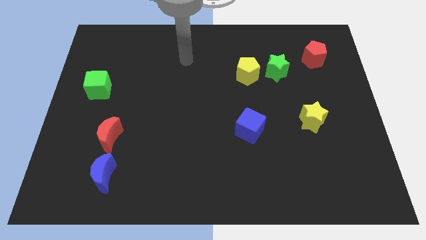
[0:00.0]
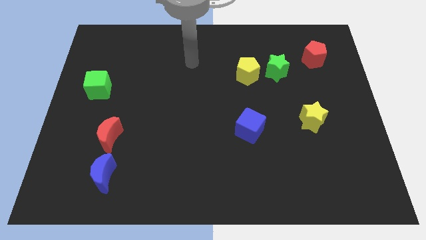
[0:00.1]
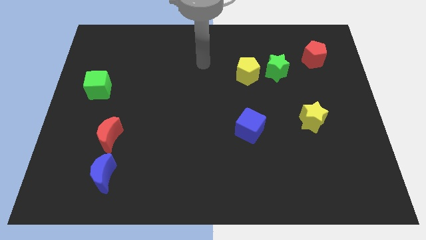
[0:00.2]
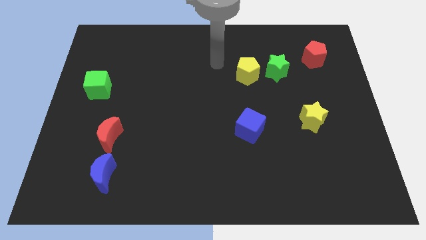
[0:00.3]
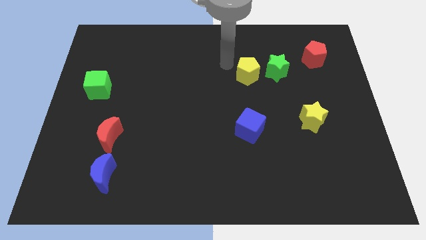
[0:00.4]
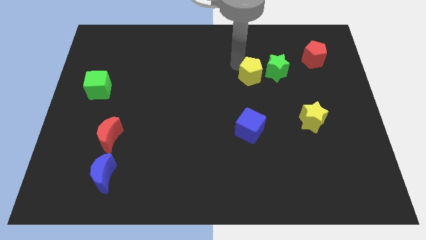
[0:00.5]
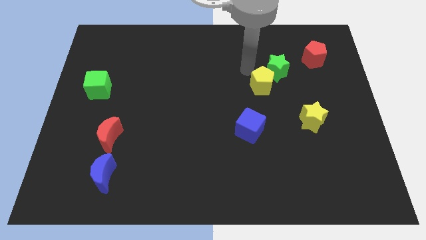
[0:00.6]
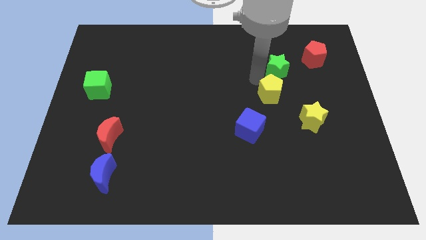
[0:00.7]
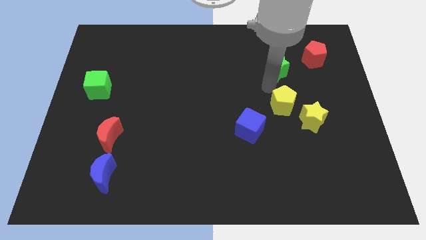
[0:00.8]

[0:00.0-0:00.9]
separate the green star from the yellow pentagon

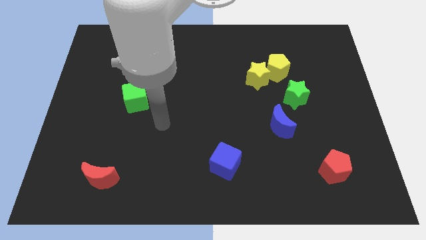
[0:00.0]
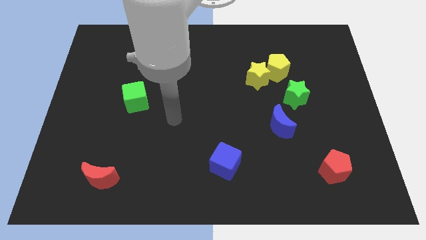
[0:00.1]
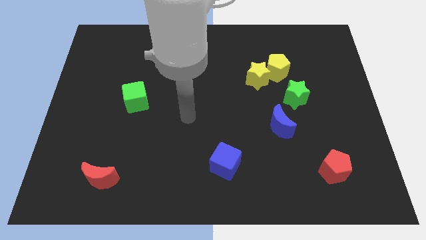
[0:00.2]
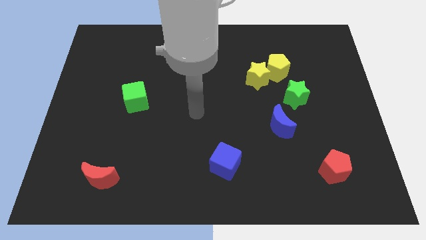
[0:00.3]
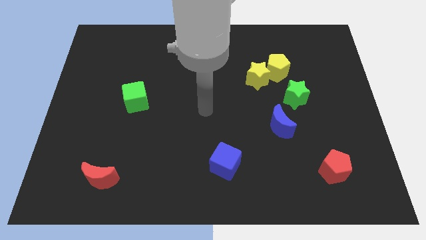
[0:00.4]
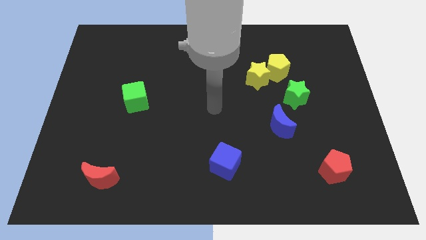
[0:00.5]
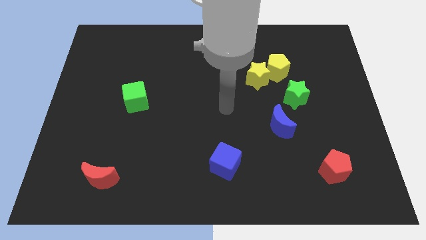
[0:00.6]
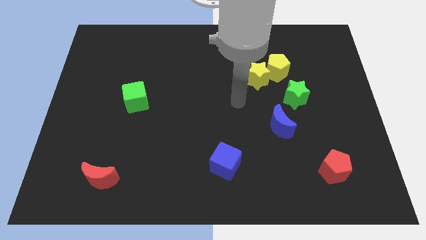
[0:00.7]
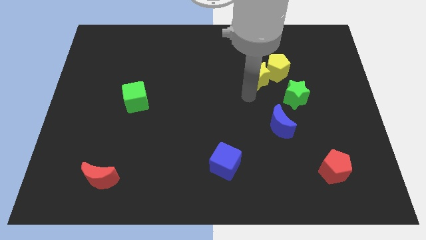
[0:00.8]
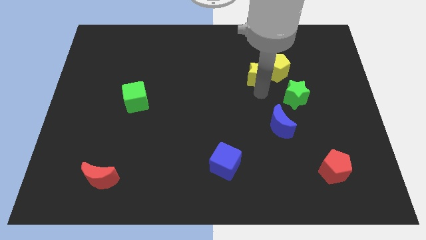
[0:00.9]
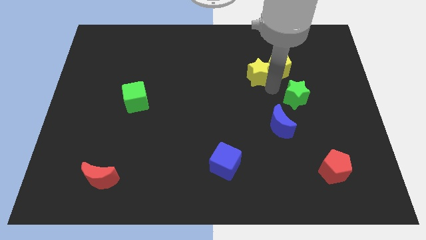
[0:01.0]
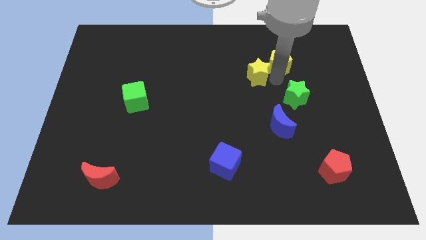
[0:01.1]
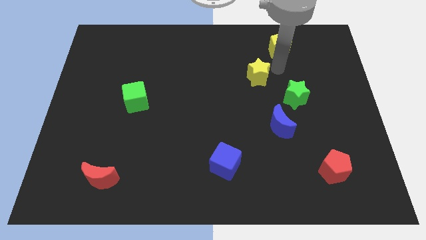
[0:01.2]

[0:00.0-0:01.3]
pull the yellow star apart from the yellow pentagon

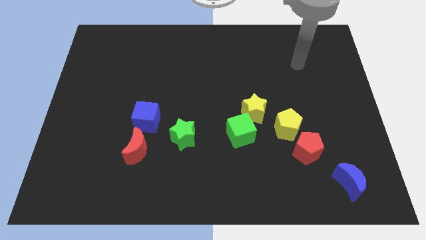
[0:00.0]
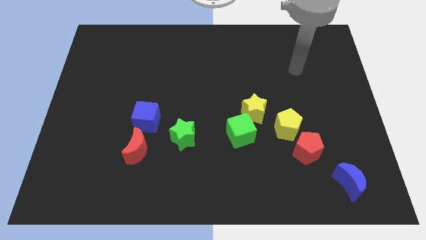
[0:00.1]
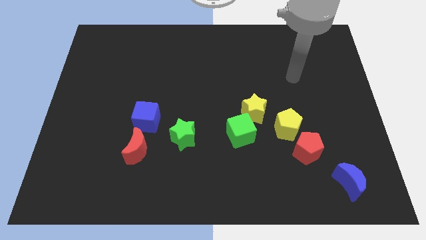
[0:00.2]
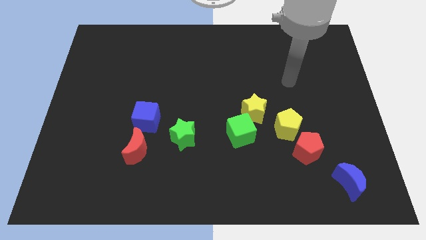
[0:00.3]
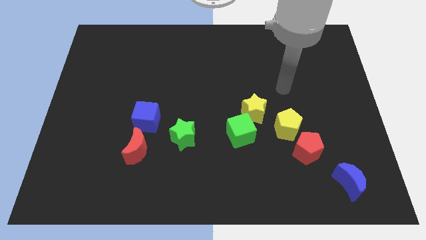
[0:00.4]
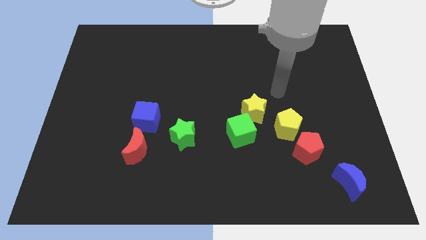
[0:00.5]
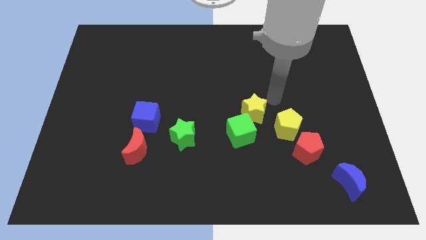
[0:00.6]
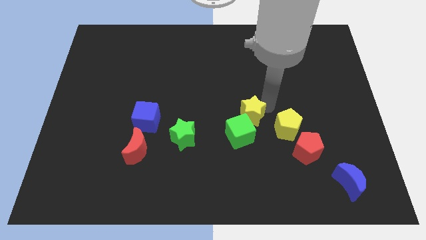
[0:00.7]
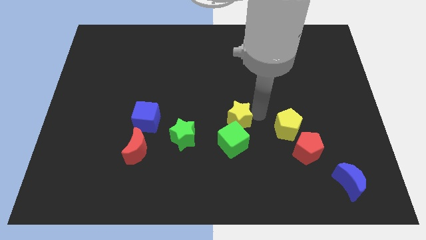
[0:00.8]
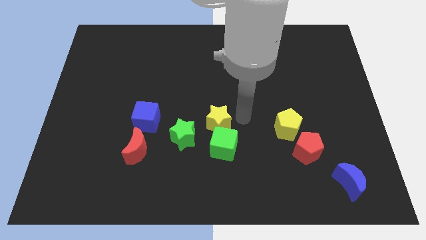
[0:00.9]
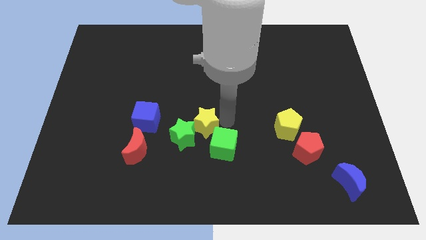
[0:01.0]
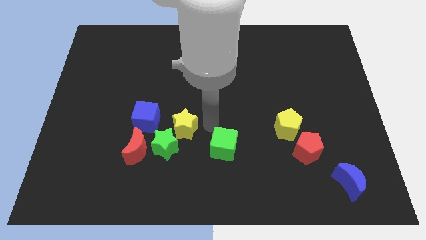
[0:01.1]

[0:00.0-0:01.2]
pull the green cube apart from the yellow star

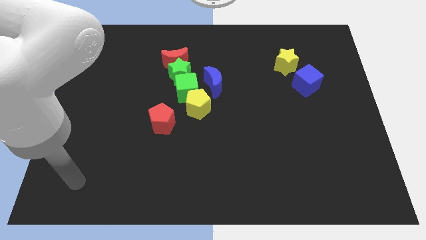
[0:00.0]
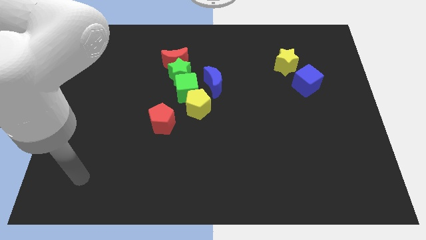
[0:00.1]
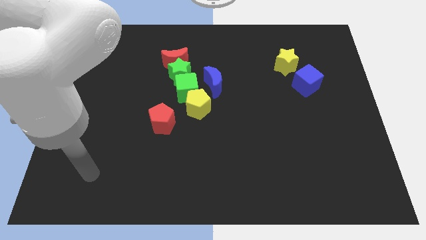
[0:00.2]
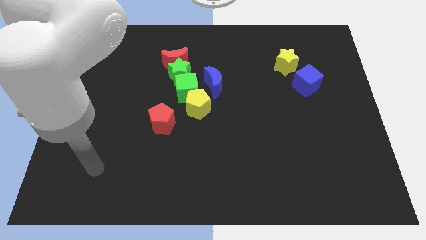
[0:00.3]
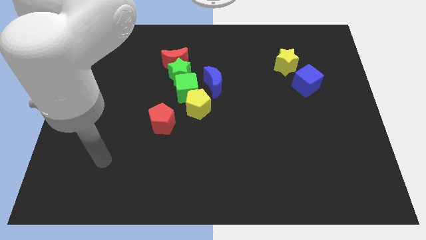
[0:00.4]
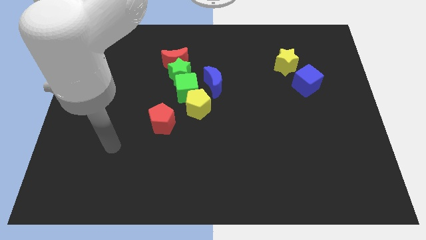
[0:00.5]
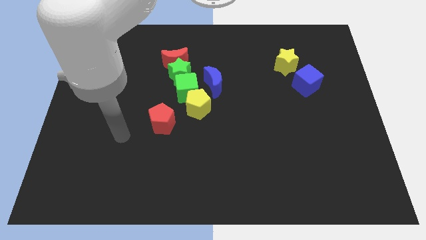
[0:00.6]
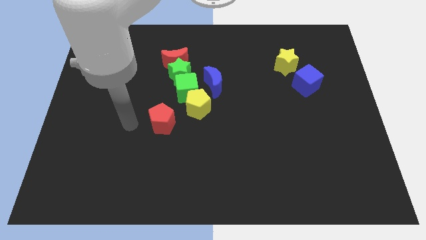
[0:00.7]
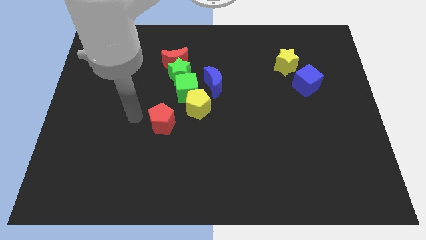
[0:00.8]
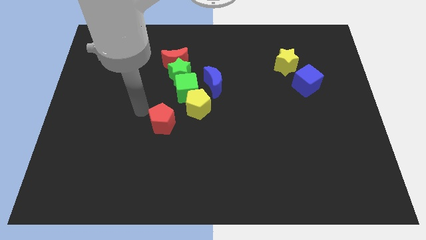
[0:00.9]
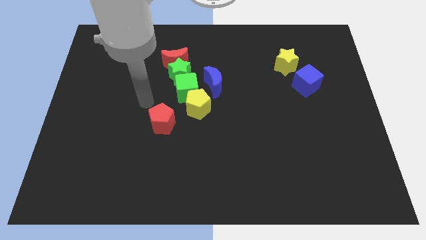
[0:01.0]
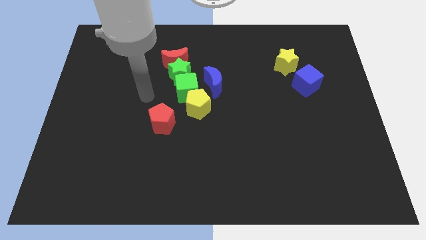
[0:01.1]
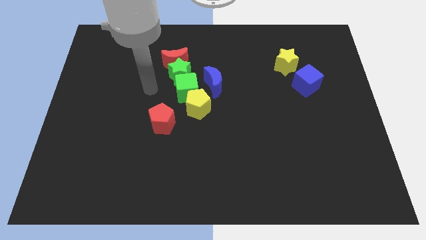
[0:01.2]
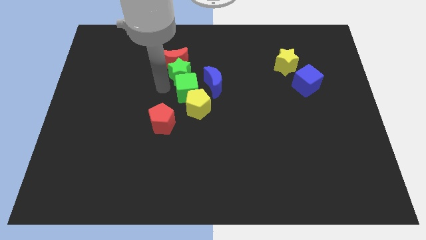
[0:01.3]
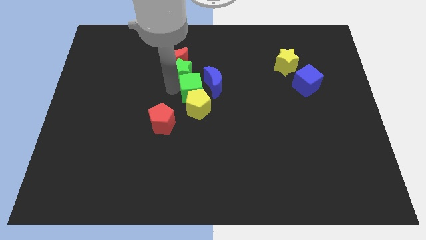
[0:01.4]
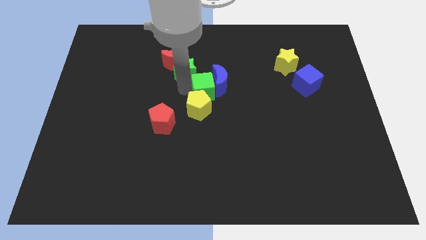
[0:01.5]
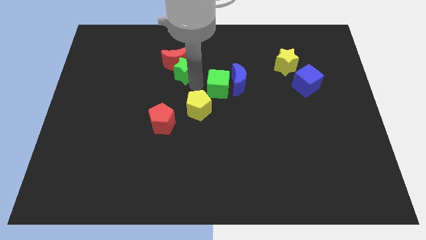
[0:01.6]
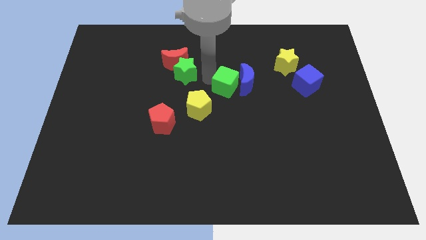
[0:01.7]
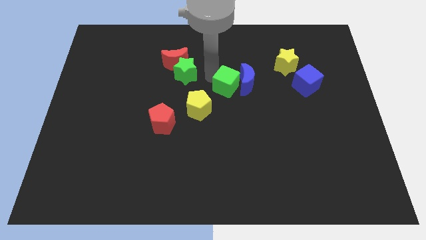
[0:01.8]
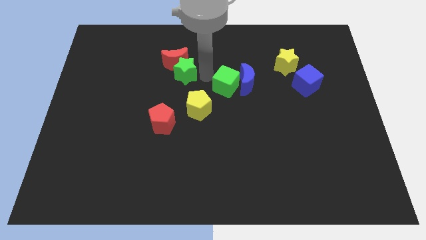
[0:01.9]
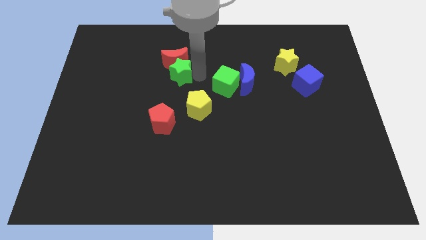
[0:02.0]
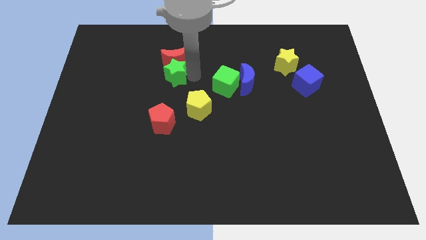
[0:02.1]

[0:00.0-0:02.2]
pull the green star apart from the red moon, green cube, and blue moon

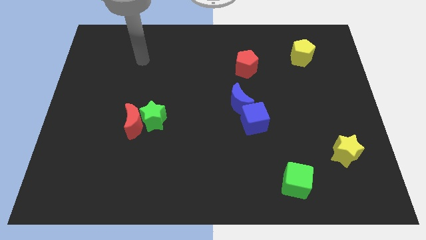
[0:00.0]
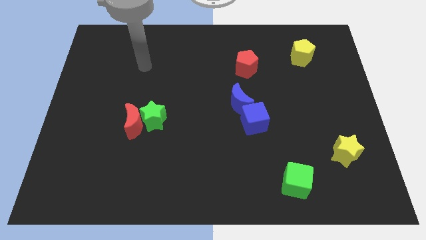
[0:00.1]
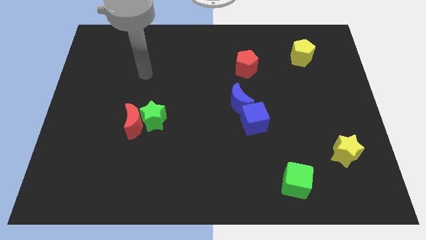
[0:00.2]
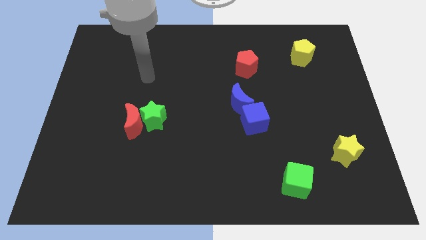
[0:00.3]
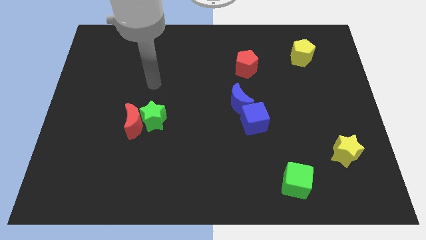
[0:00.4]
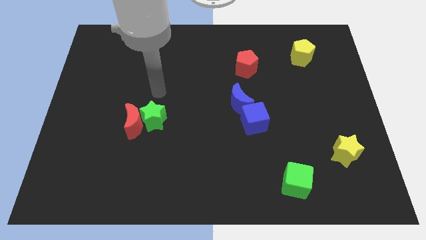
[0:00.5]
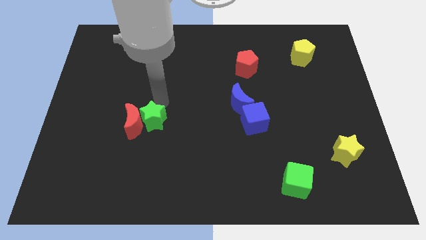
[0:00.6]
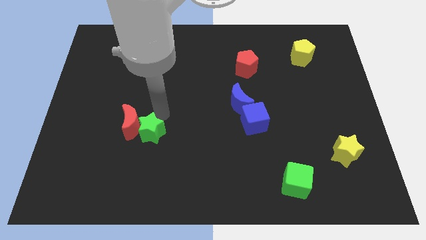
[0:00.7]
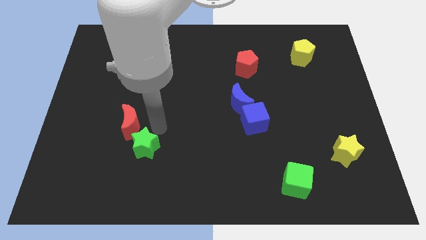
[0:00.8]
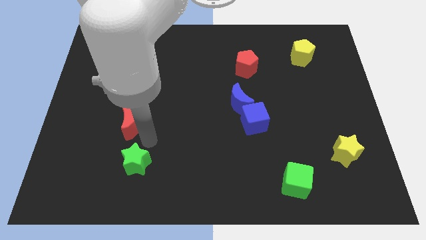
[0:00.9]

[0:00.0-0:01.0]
move the red moon away from the green star

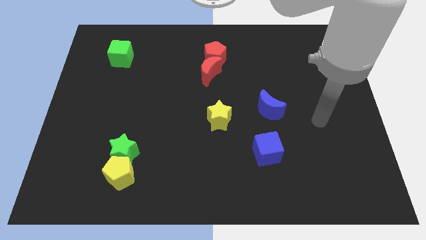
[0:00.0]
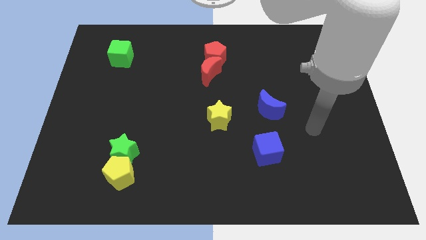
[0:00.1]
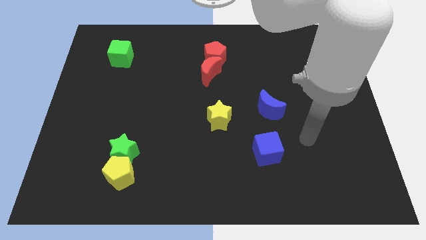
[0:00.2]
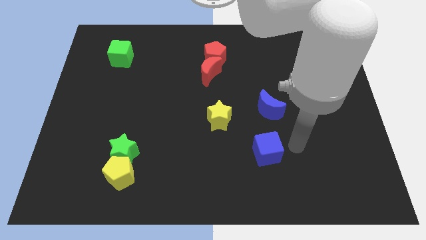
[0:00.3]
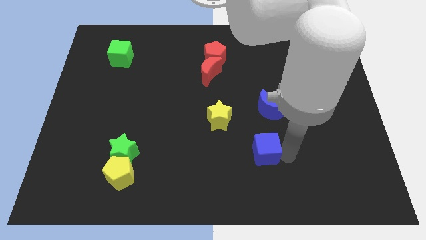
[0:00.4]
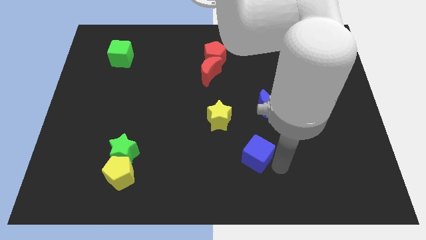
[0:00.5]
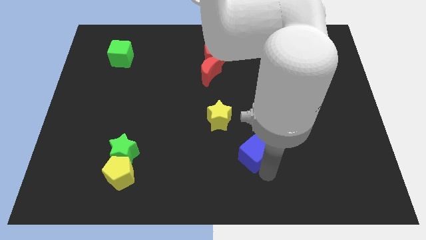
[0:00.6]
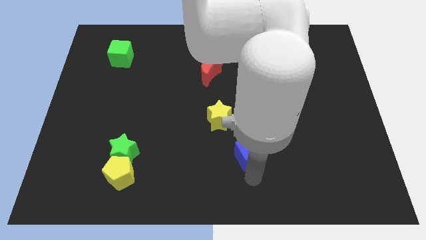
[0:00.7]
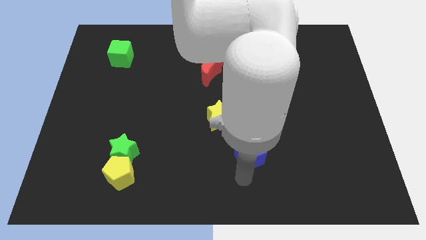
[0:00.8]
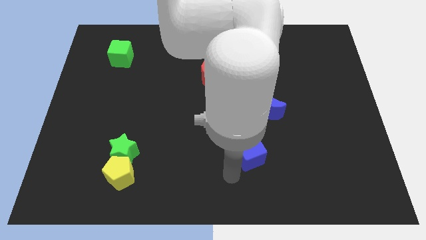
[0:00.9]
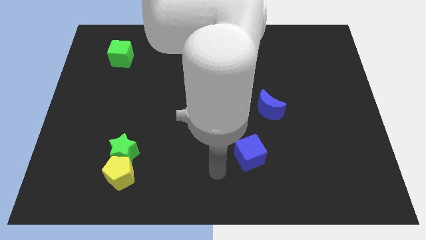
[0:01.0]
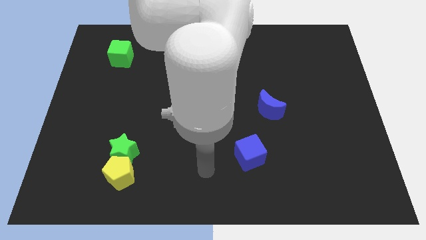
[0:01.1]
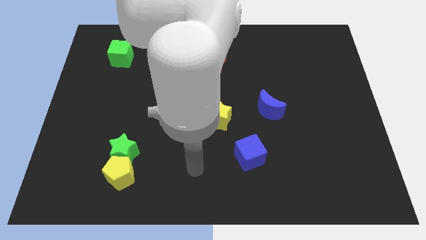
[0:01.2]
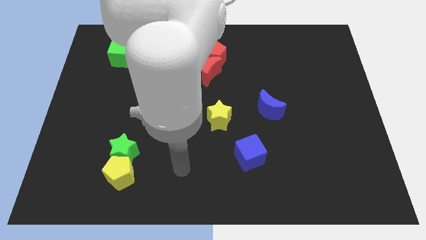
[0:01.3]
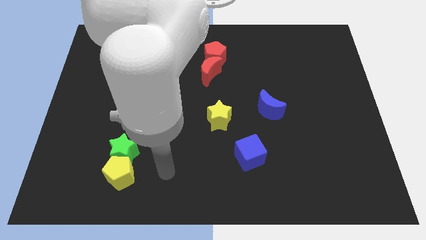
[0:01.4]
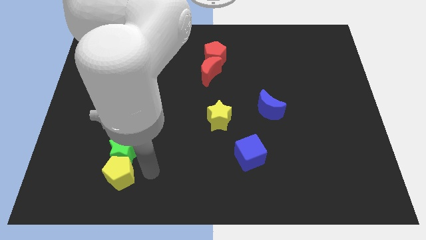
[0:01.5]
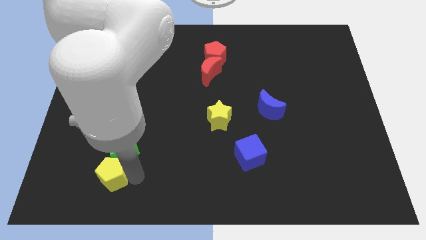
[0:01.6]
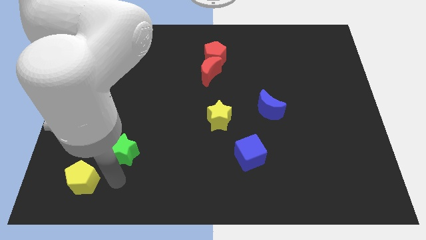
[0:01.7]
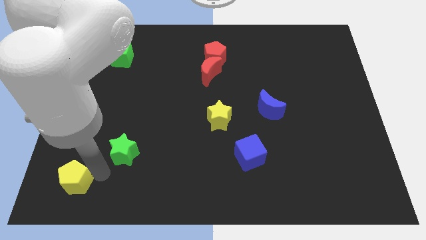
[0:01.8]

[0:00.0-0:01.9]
move the green star away from the yellow pentagon

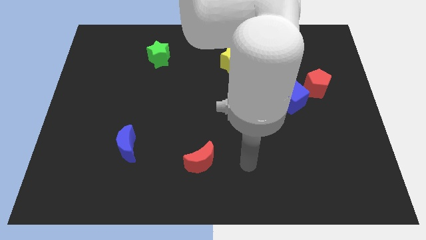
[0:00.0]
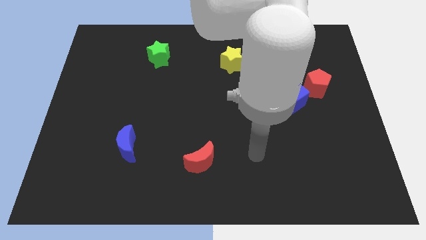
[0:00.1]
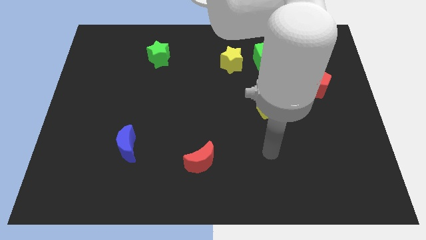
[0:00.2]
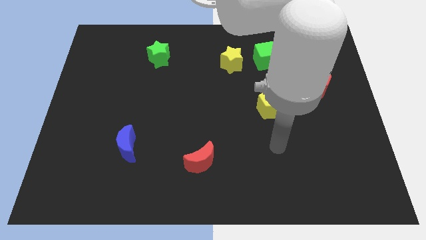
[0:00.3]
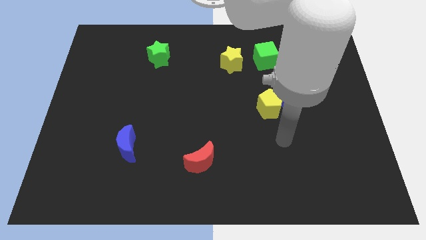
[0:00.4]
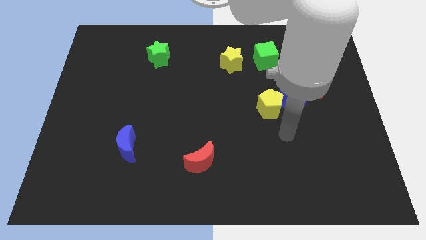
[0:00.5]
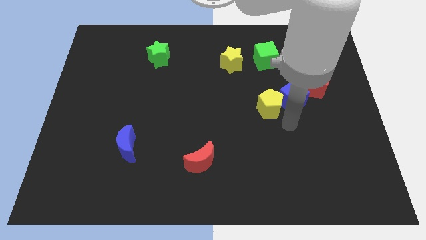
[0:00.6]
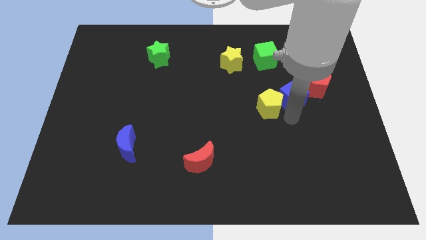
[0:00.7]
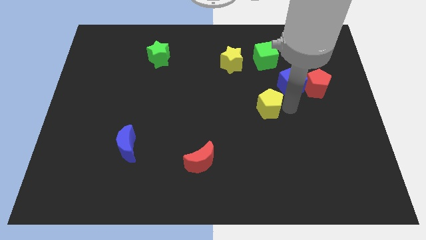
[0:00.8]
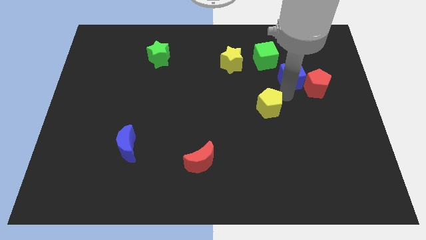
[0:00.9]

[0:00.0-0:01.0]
pull the yellow pentagon apart from the blue cube
